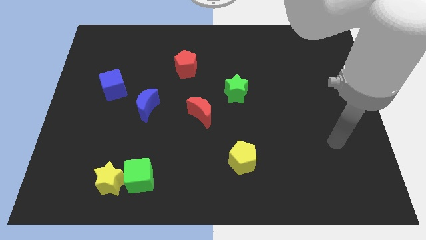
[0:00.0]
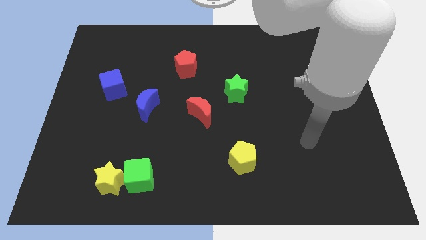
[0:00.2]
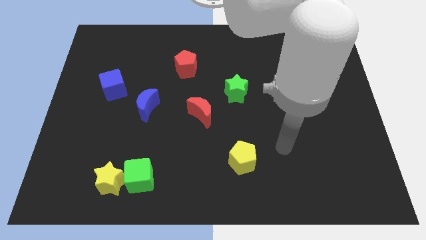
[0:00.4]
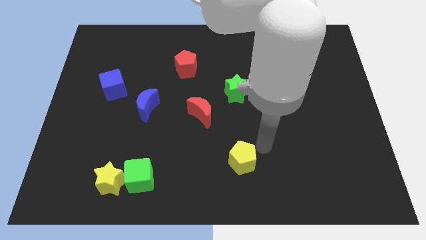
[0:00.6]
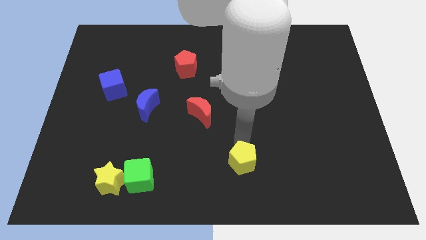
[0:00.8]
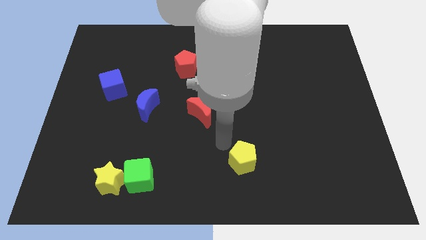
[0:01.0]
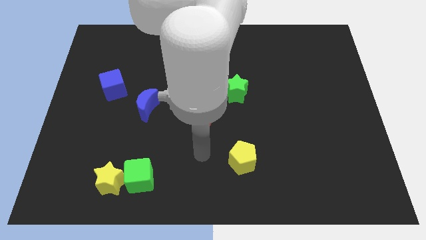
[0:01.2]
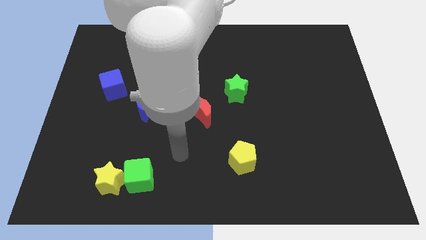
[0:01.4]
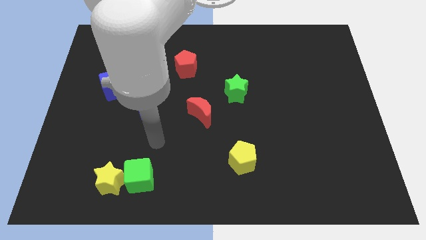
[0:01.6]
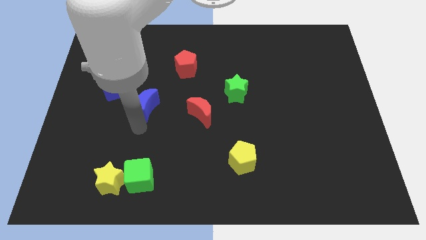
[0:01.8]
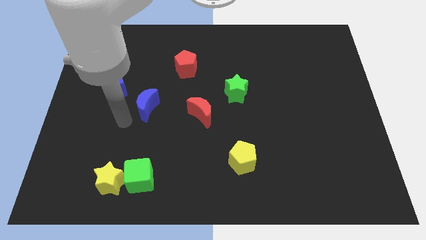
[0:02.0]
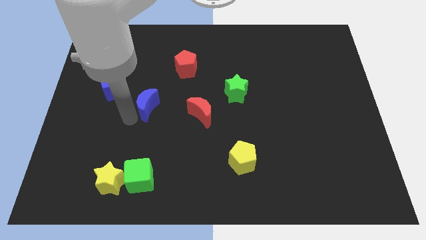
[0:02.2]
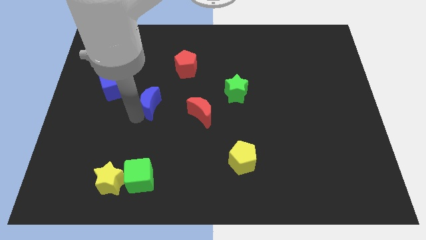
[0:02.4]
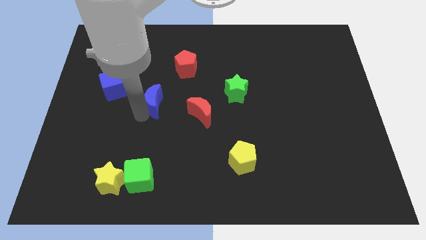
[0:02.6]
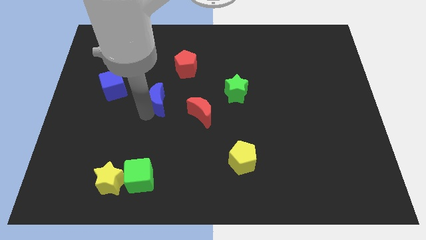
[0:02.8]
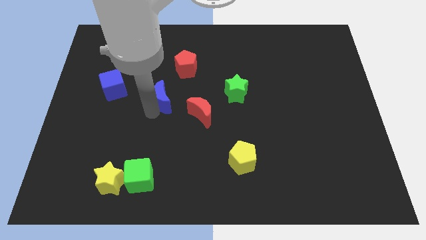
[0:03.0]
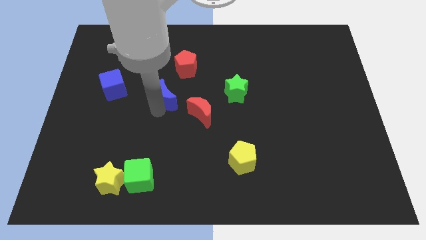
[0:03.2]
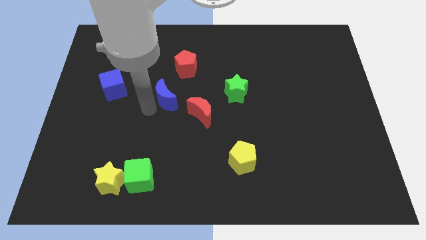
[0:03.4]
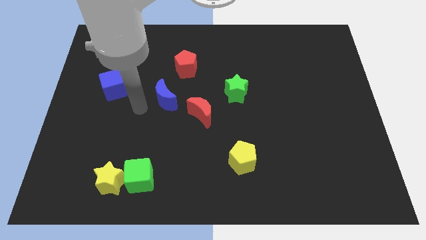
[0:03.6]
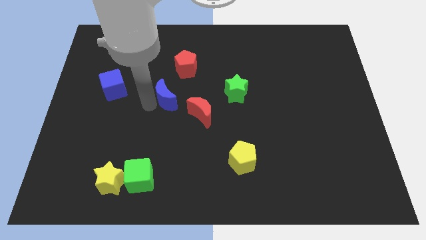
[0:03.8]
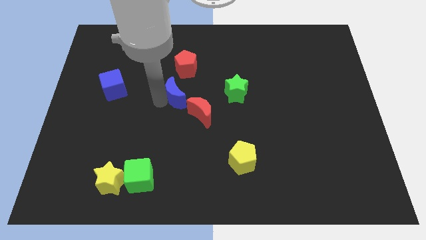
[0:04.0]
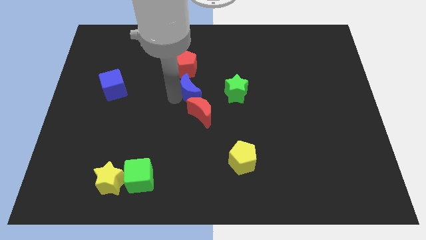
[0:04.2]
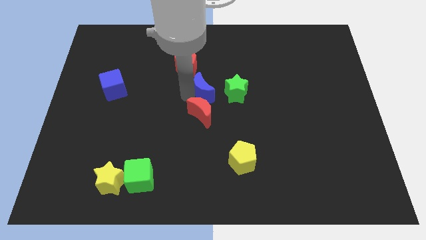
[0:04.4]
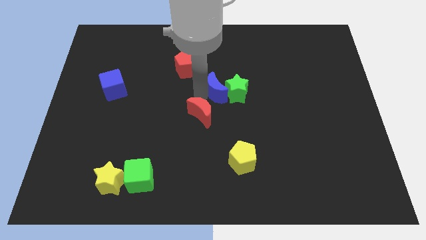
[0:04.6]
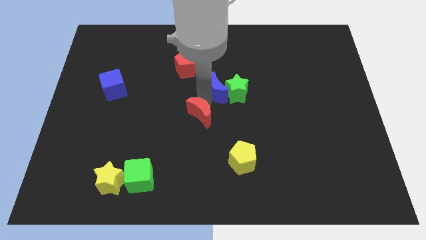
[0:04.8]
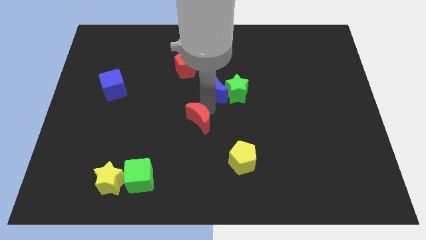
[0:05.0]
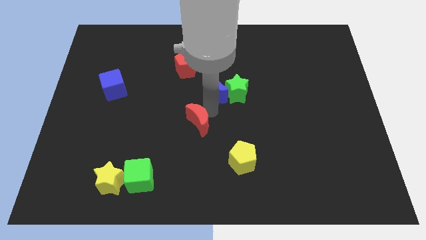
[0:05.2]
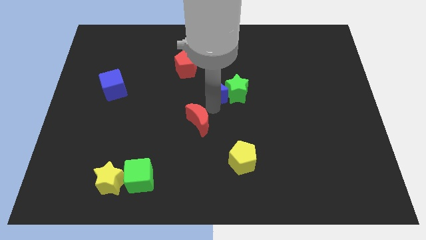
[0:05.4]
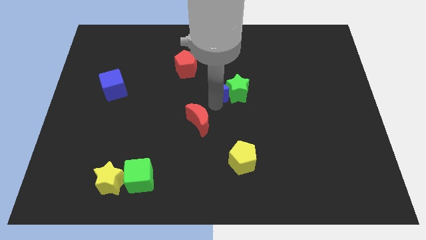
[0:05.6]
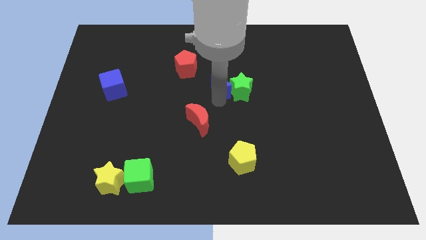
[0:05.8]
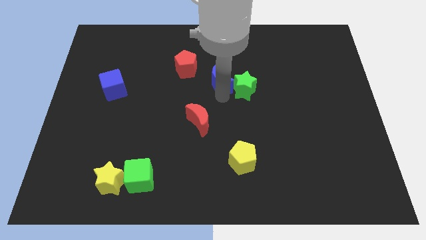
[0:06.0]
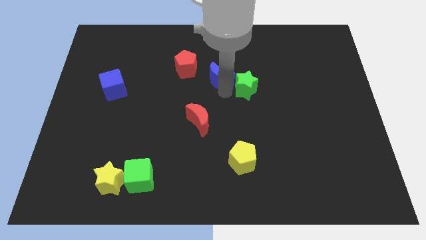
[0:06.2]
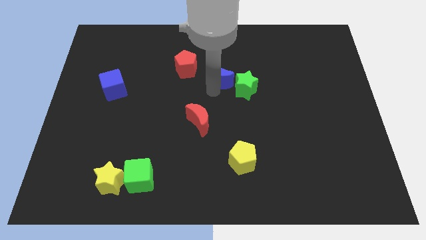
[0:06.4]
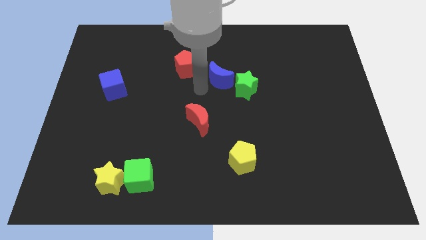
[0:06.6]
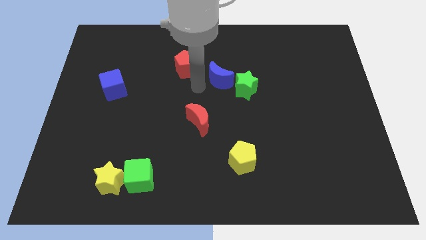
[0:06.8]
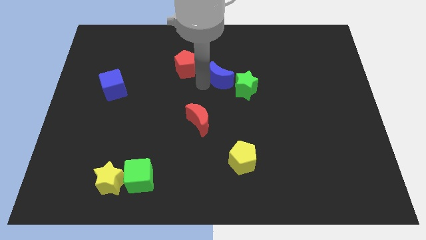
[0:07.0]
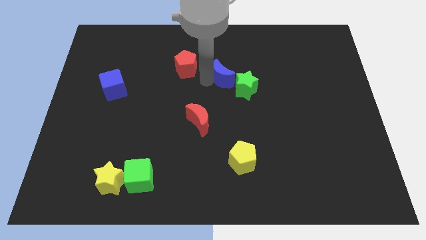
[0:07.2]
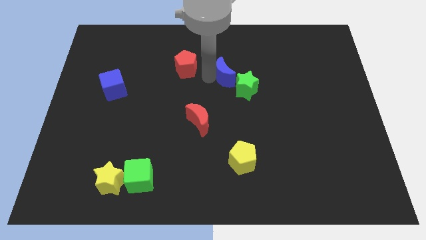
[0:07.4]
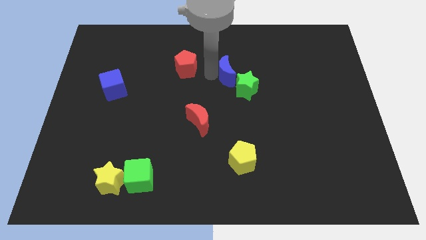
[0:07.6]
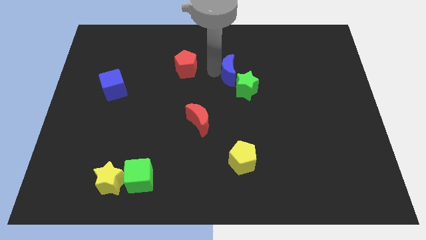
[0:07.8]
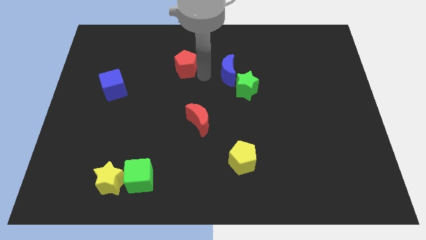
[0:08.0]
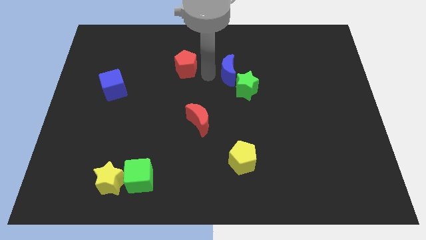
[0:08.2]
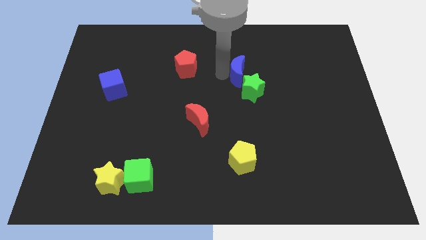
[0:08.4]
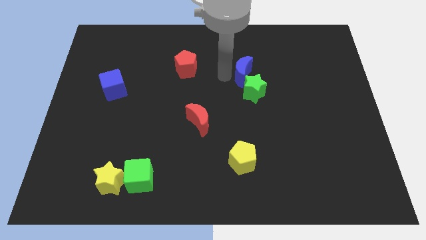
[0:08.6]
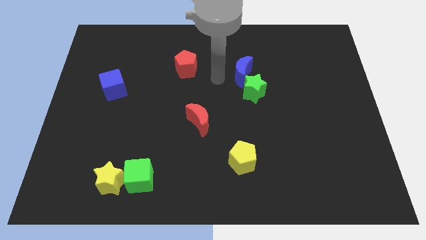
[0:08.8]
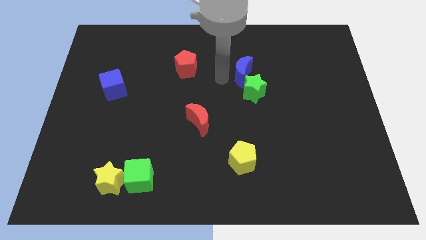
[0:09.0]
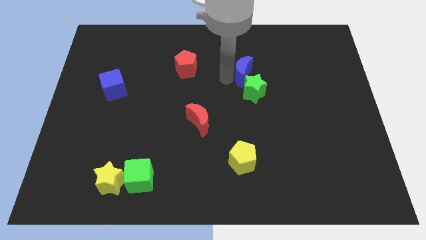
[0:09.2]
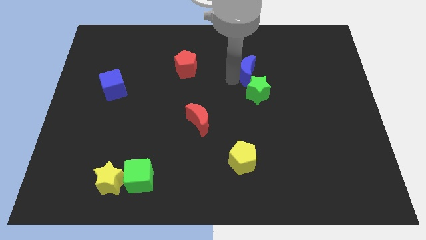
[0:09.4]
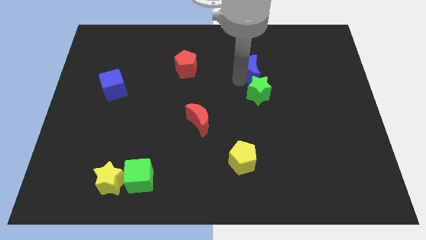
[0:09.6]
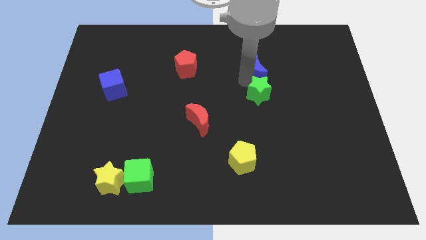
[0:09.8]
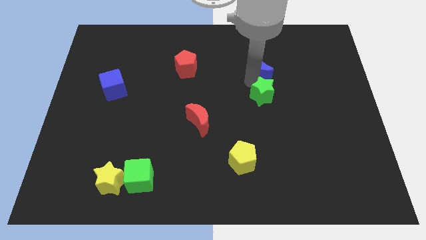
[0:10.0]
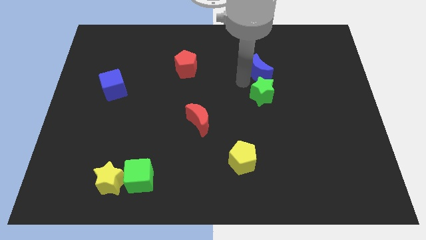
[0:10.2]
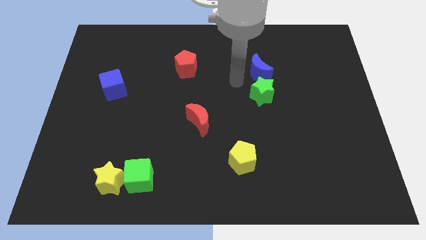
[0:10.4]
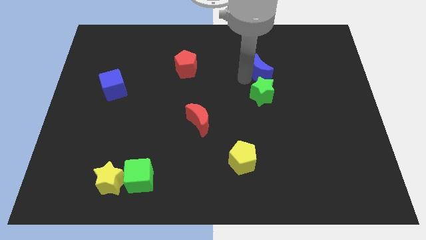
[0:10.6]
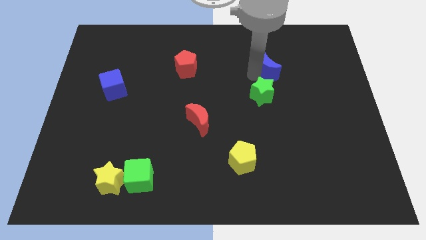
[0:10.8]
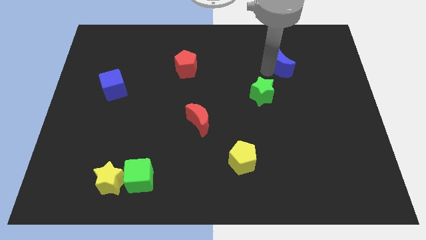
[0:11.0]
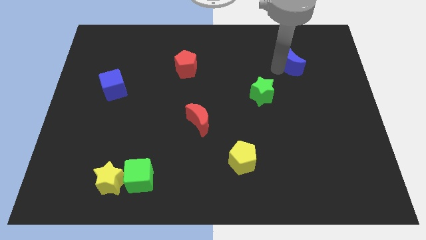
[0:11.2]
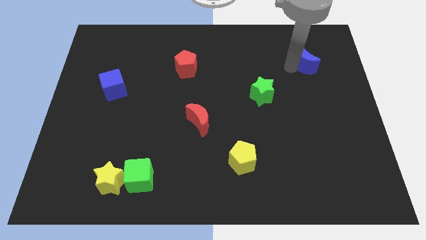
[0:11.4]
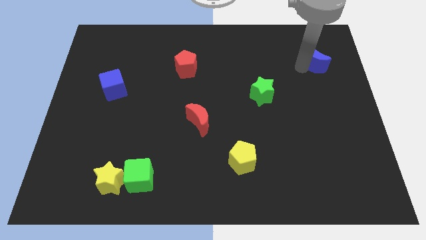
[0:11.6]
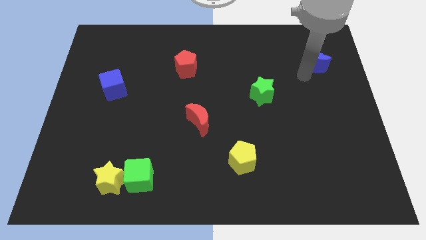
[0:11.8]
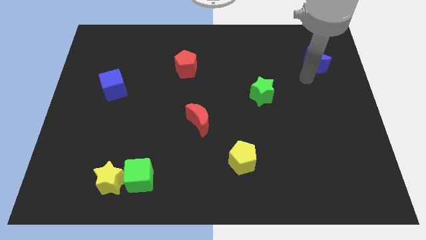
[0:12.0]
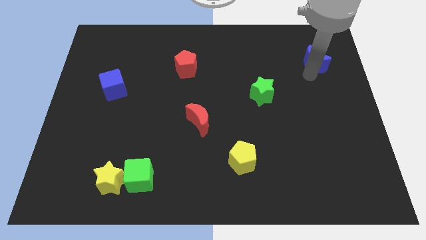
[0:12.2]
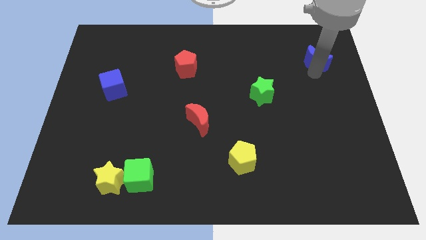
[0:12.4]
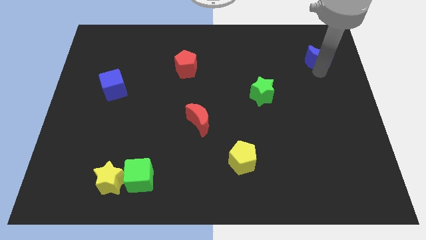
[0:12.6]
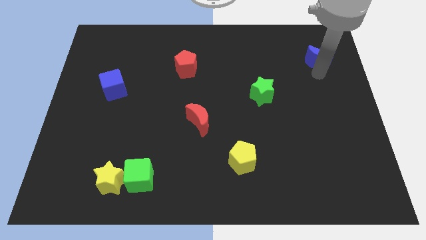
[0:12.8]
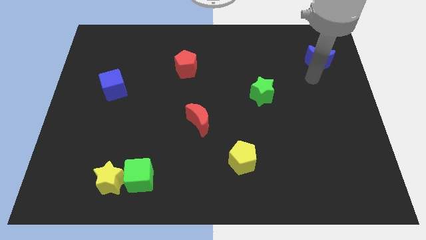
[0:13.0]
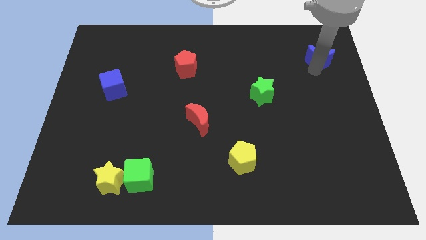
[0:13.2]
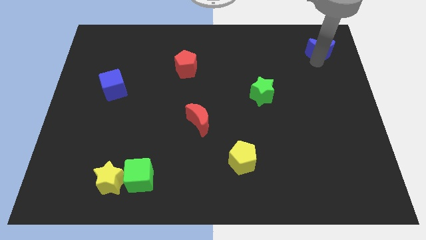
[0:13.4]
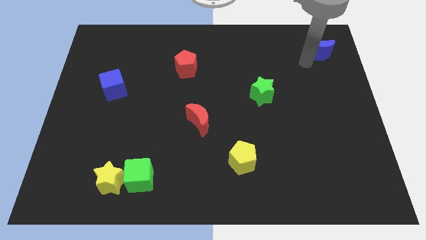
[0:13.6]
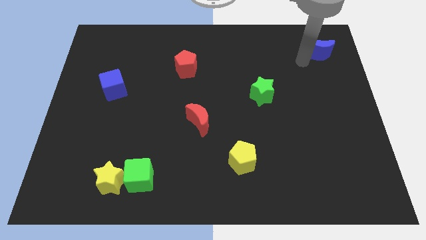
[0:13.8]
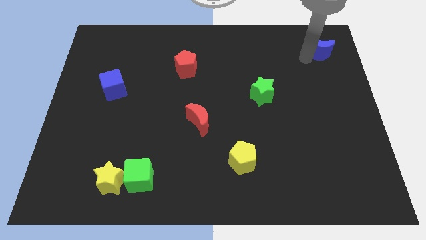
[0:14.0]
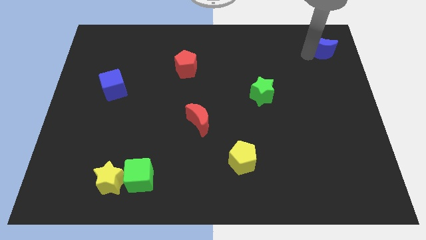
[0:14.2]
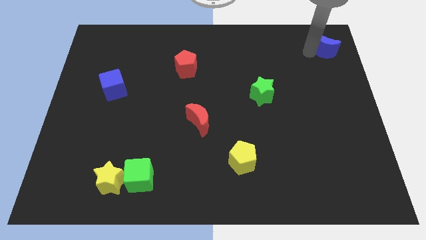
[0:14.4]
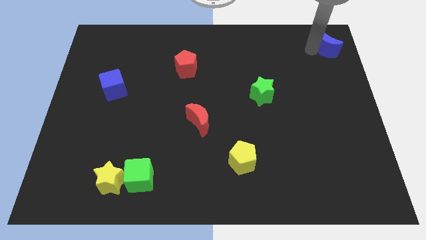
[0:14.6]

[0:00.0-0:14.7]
slide the blue moon to the top right of the board
